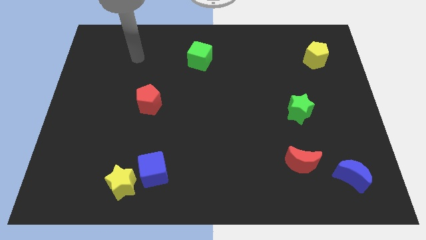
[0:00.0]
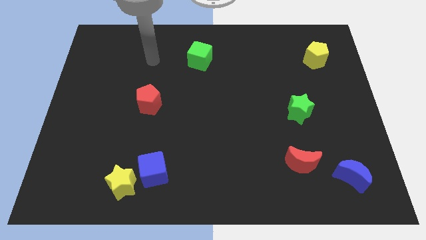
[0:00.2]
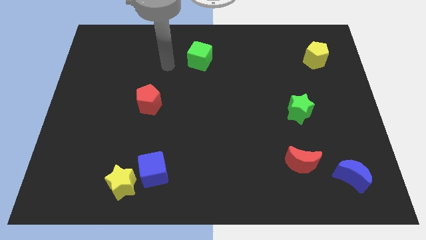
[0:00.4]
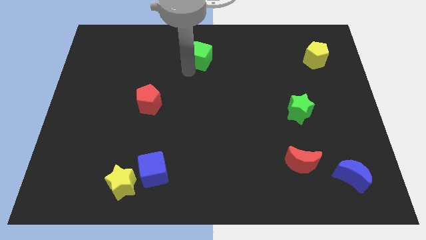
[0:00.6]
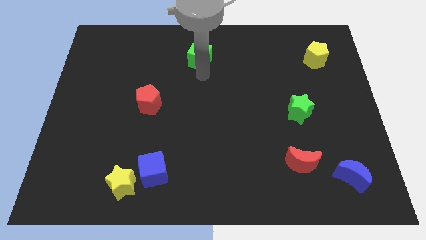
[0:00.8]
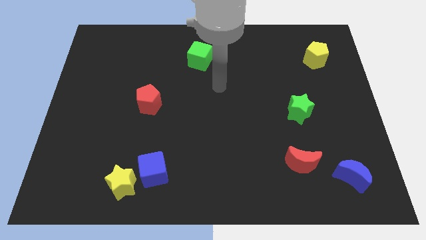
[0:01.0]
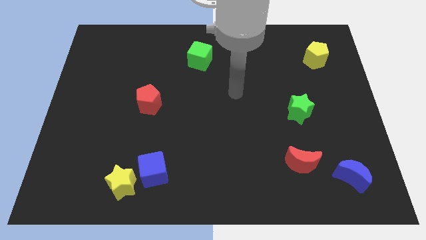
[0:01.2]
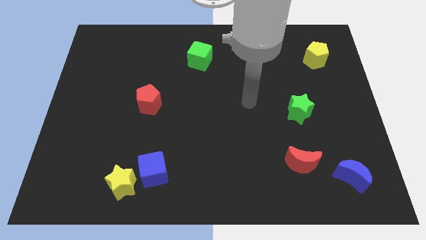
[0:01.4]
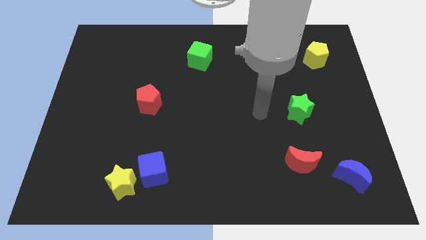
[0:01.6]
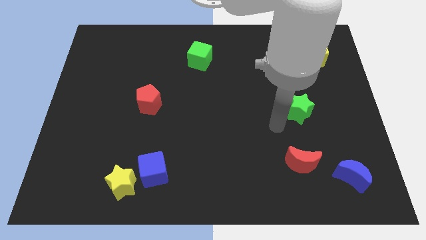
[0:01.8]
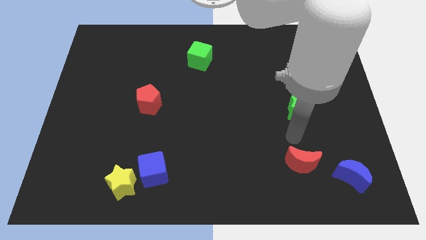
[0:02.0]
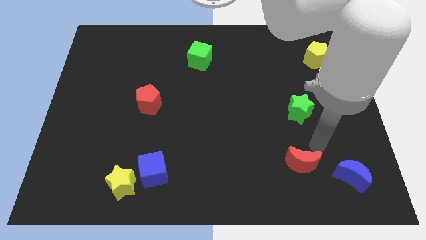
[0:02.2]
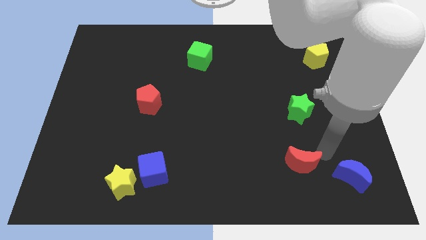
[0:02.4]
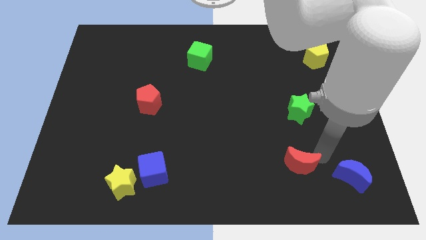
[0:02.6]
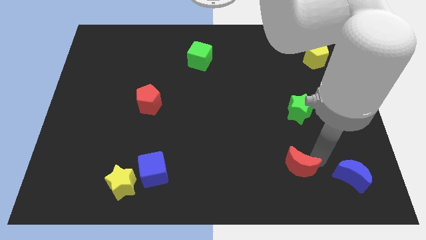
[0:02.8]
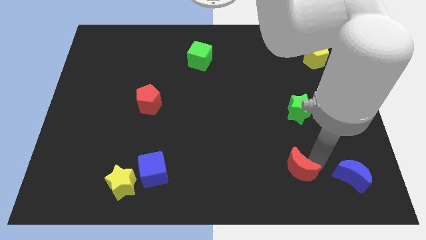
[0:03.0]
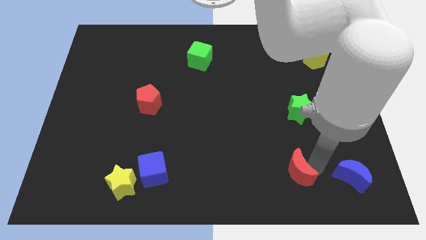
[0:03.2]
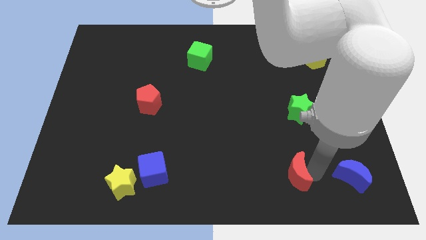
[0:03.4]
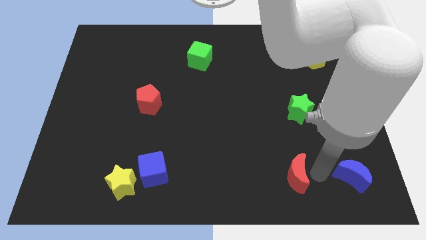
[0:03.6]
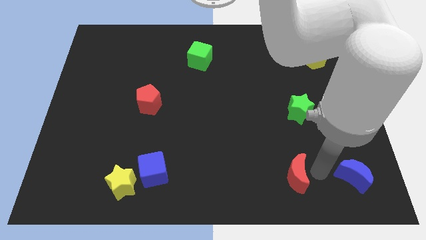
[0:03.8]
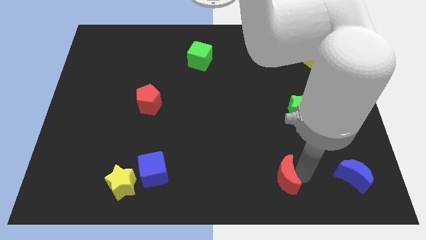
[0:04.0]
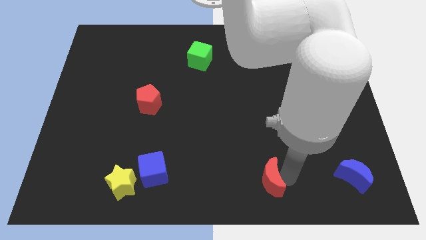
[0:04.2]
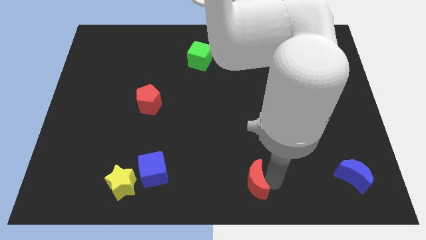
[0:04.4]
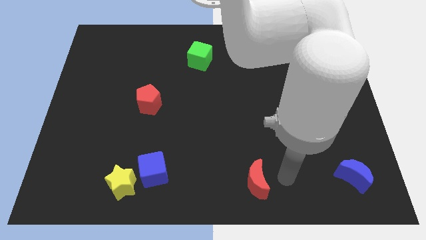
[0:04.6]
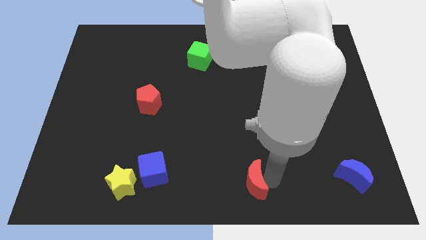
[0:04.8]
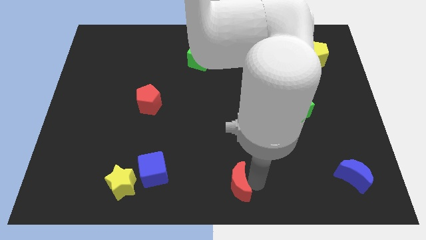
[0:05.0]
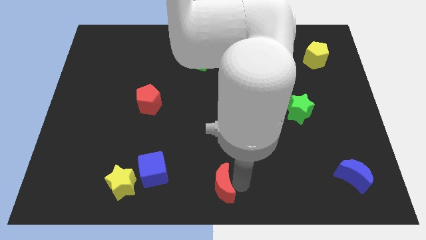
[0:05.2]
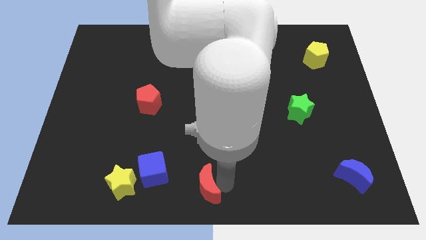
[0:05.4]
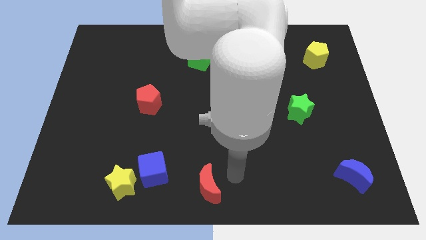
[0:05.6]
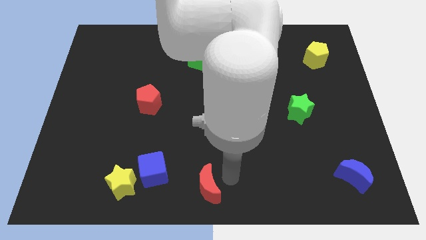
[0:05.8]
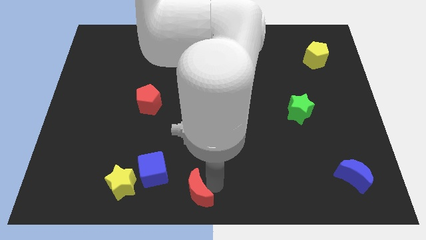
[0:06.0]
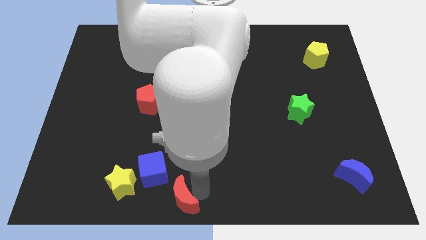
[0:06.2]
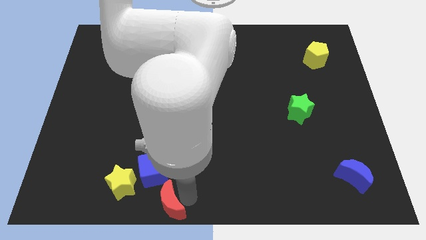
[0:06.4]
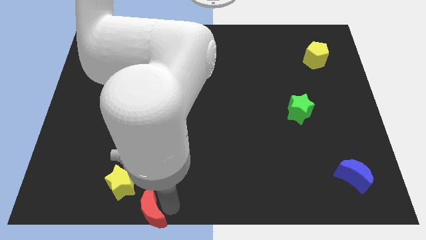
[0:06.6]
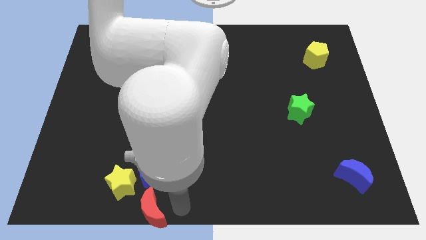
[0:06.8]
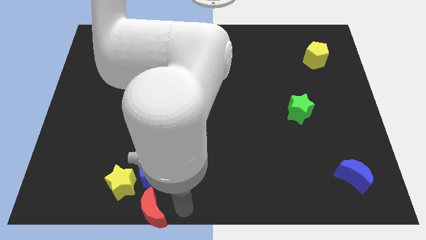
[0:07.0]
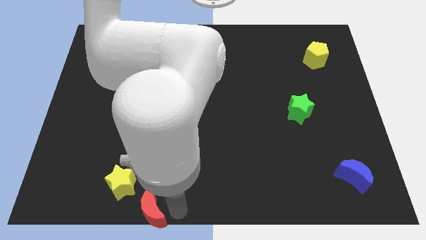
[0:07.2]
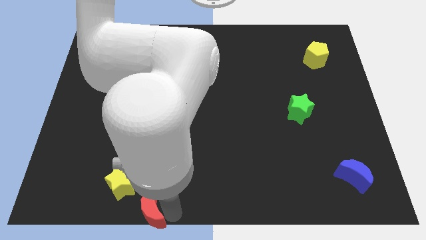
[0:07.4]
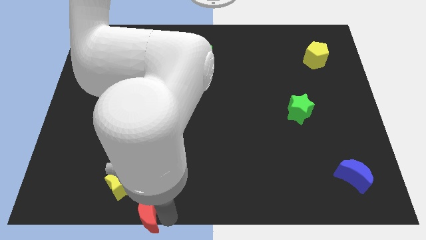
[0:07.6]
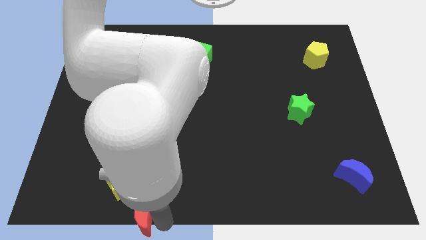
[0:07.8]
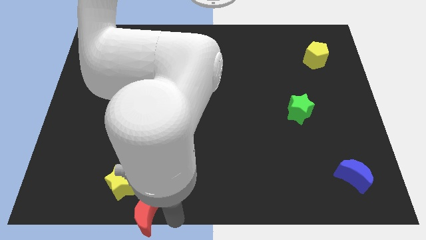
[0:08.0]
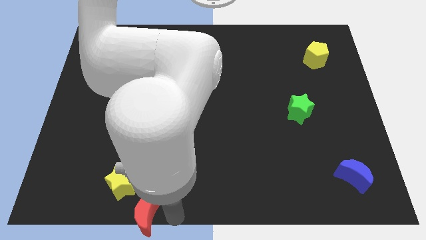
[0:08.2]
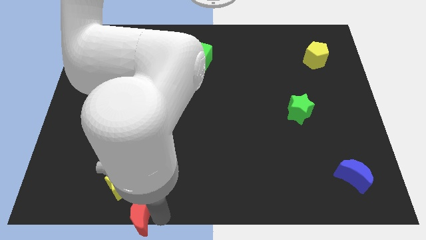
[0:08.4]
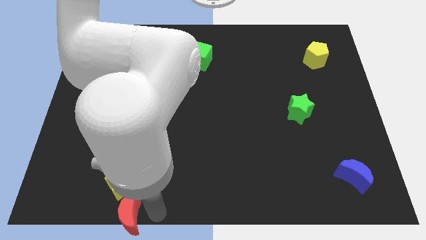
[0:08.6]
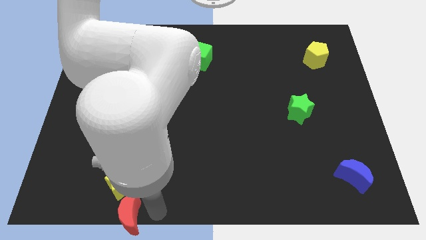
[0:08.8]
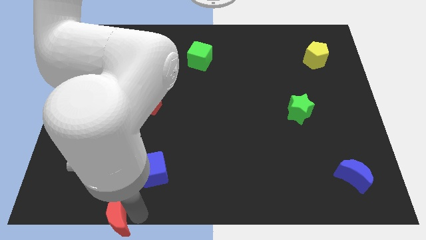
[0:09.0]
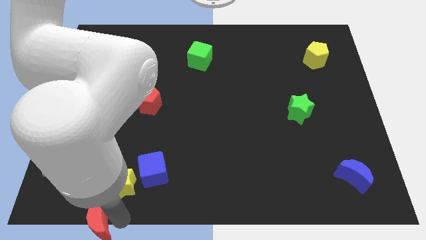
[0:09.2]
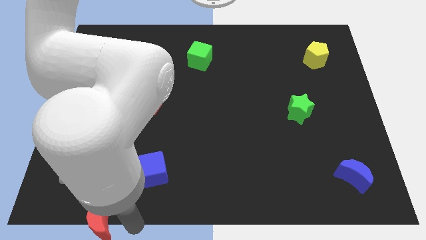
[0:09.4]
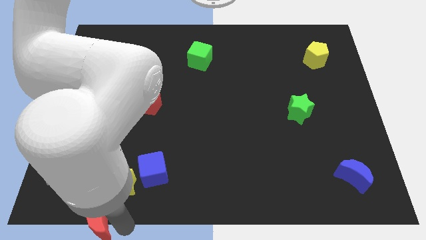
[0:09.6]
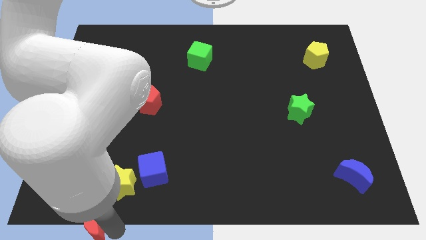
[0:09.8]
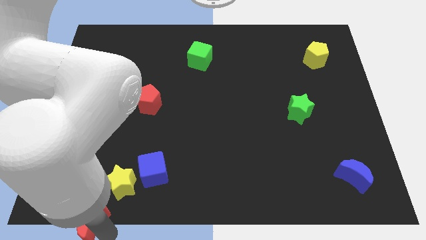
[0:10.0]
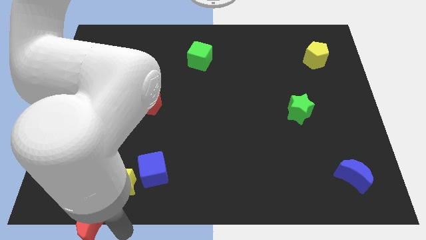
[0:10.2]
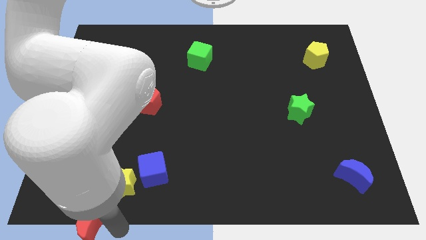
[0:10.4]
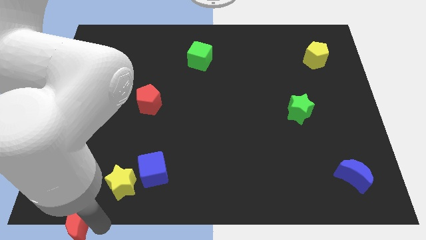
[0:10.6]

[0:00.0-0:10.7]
put the red moon to the bottom left corner
